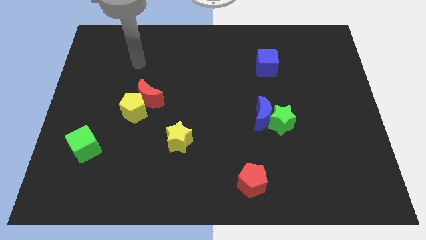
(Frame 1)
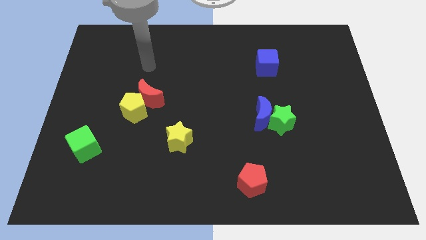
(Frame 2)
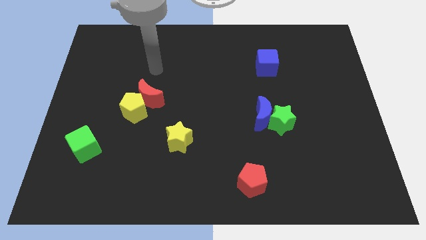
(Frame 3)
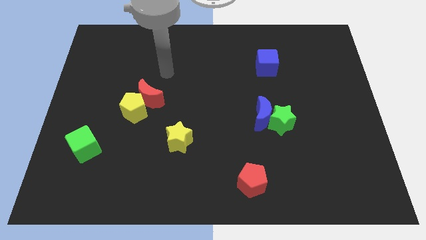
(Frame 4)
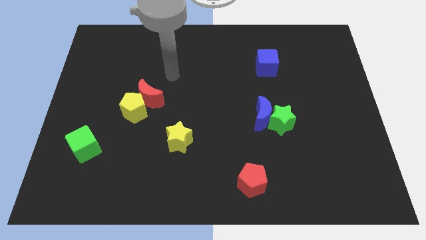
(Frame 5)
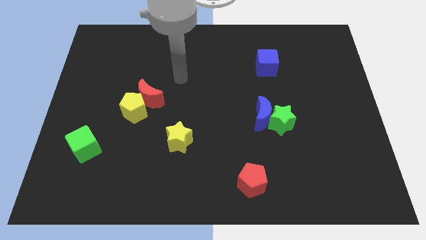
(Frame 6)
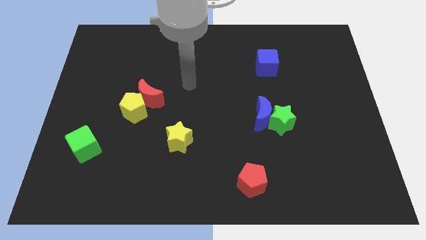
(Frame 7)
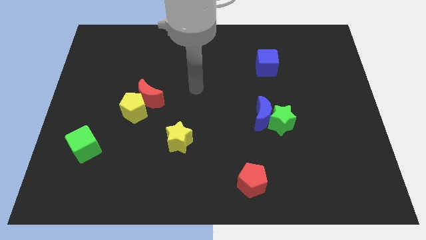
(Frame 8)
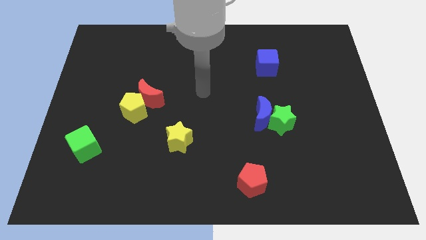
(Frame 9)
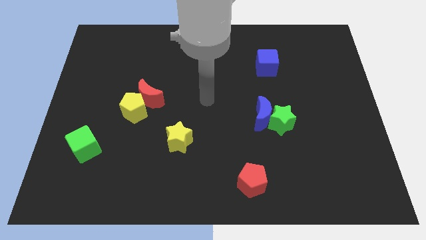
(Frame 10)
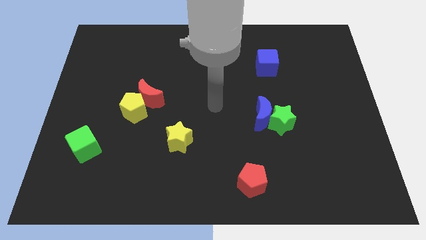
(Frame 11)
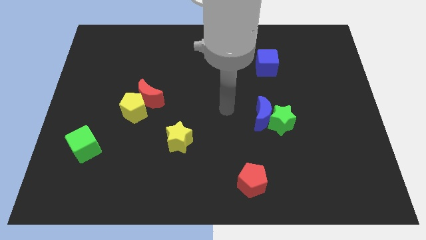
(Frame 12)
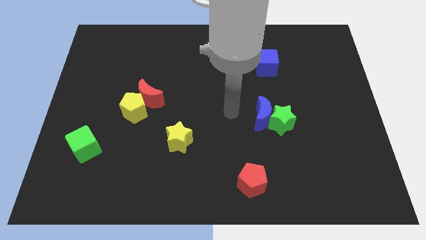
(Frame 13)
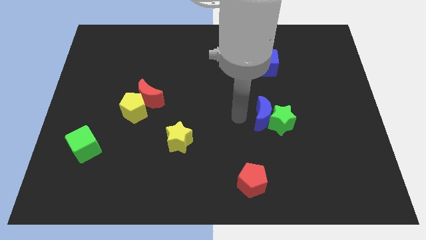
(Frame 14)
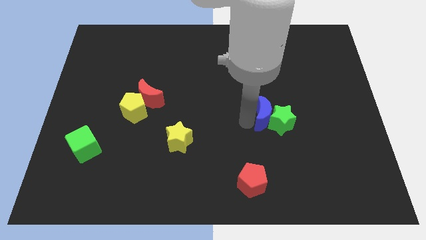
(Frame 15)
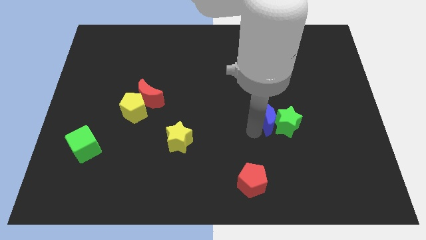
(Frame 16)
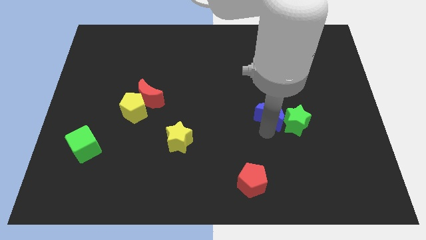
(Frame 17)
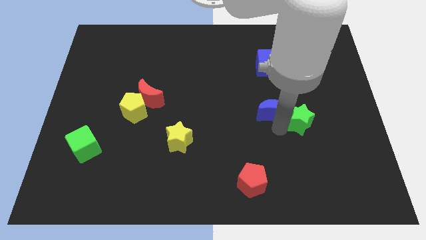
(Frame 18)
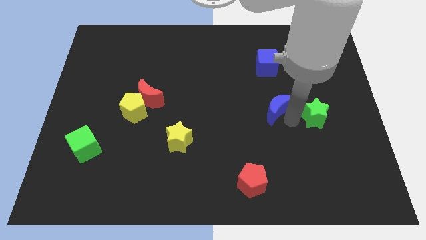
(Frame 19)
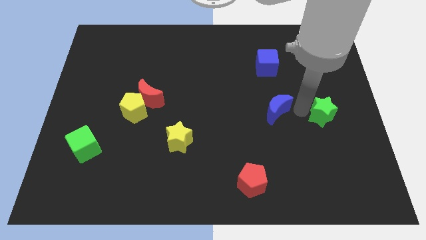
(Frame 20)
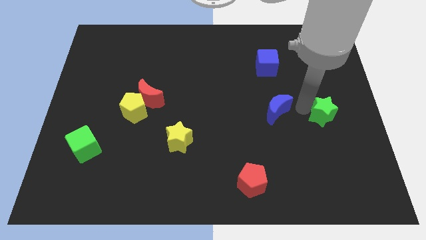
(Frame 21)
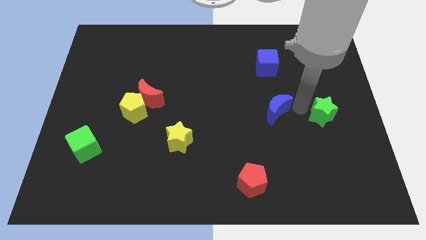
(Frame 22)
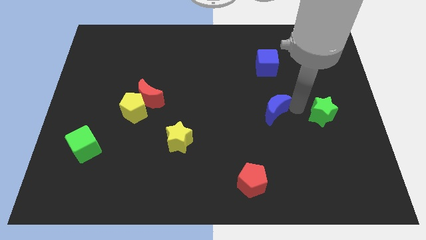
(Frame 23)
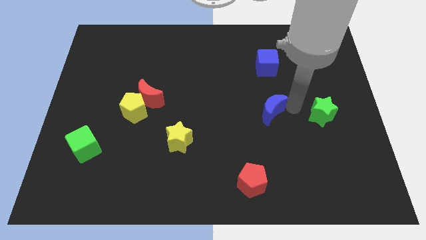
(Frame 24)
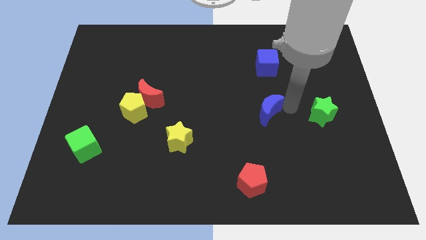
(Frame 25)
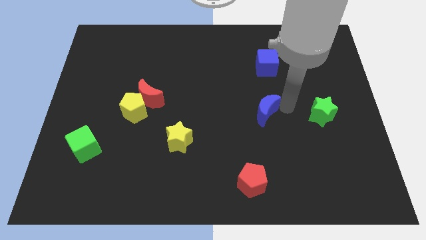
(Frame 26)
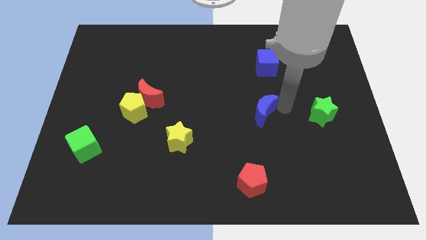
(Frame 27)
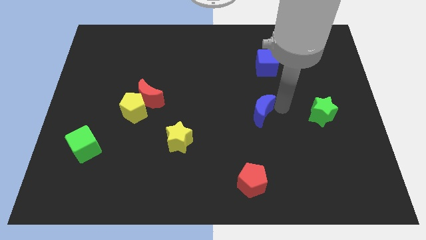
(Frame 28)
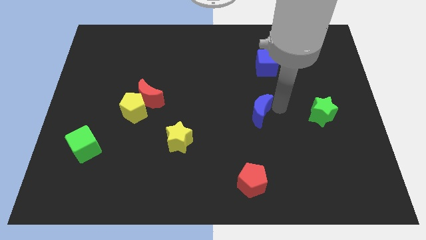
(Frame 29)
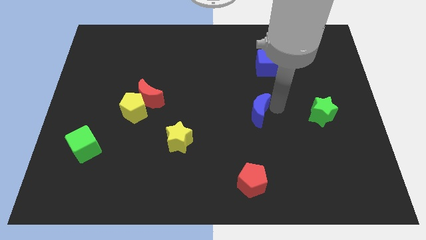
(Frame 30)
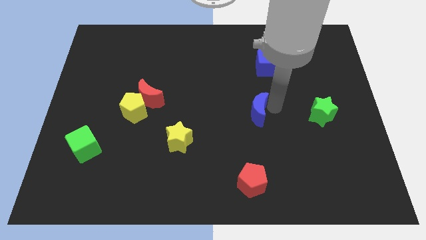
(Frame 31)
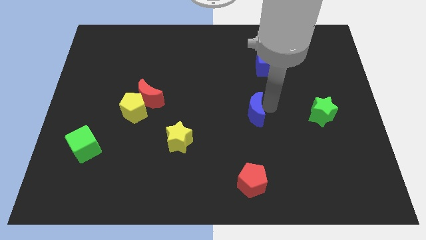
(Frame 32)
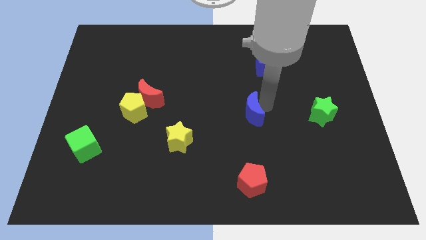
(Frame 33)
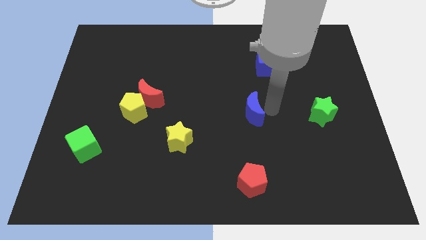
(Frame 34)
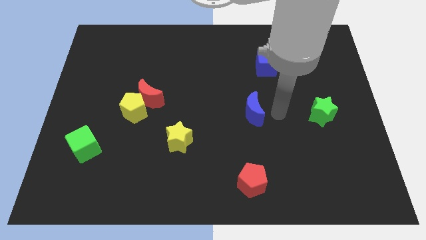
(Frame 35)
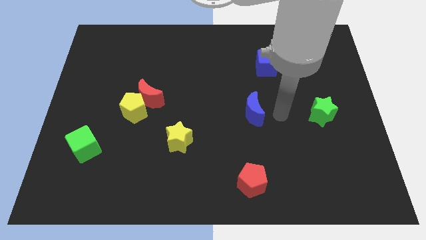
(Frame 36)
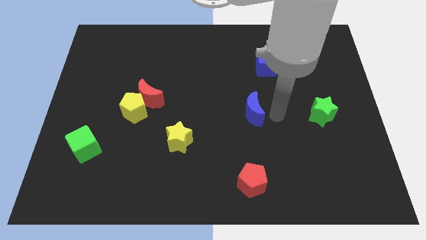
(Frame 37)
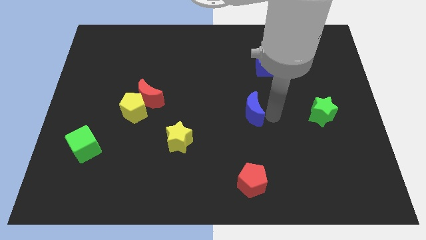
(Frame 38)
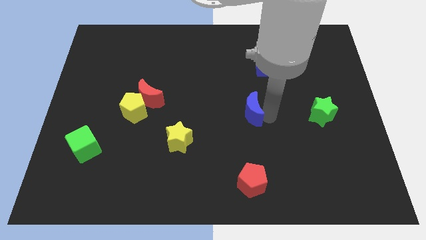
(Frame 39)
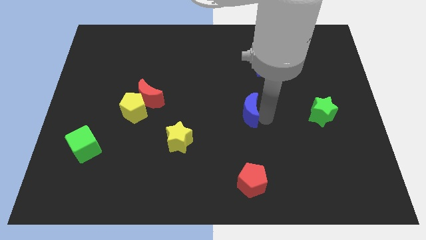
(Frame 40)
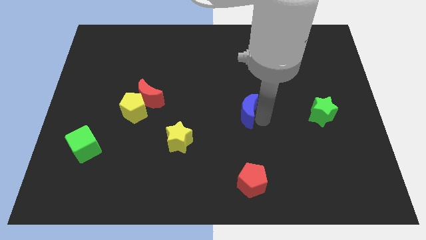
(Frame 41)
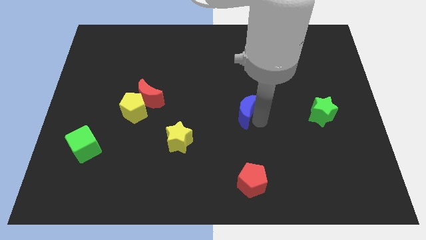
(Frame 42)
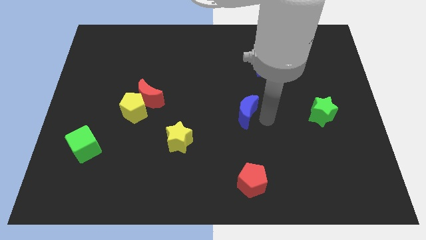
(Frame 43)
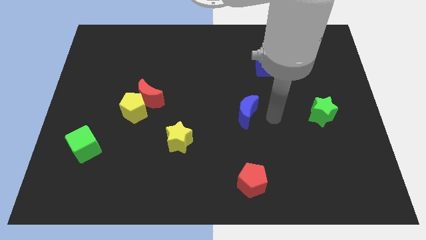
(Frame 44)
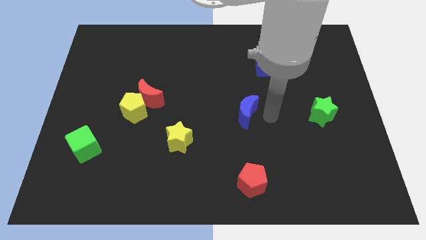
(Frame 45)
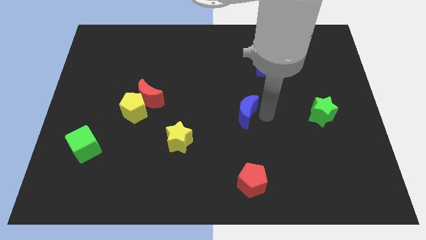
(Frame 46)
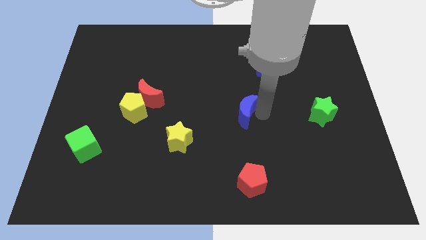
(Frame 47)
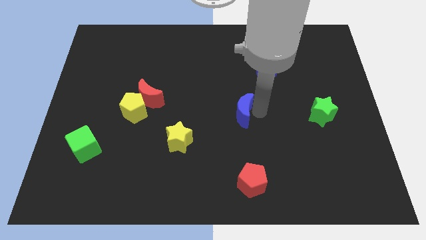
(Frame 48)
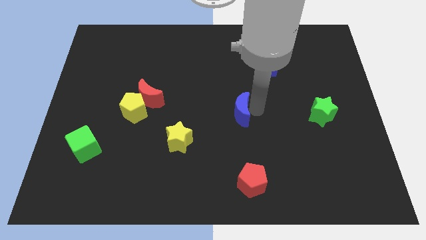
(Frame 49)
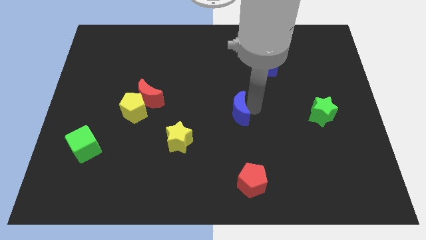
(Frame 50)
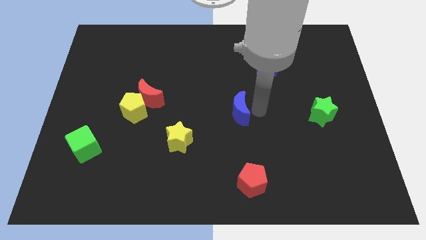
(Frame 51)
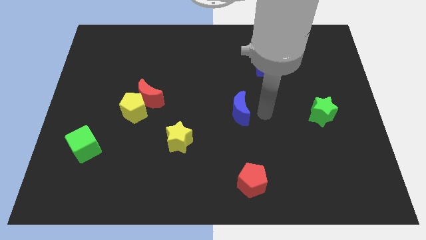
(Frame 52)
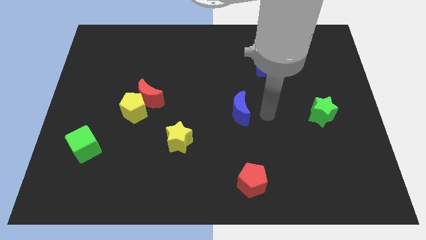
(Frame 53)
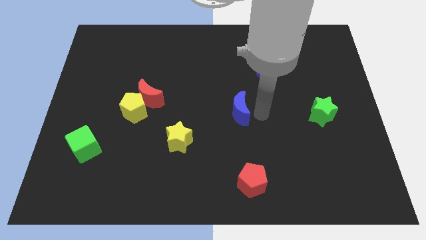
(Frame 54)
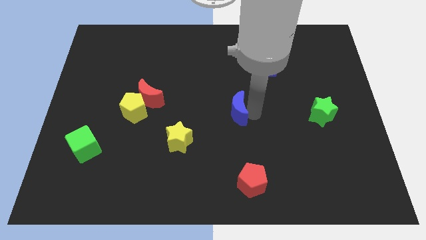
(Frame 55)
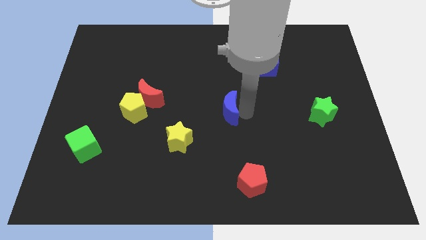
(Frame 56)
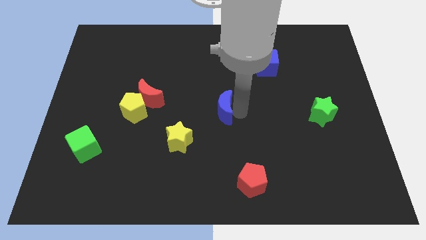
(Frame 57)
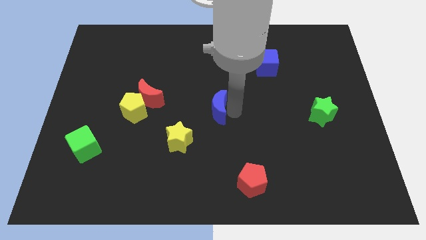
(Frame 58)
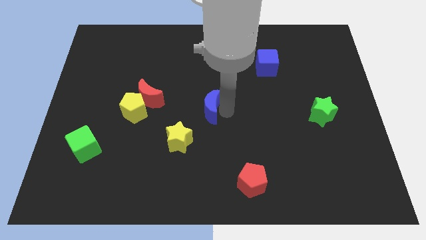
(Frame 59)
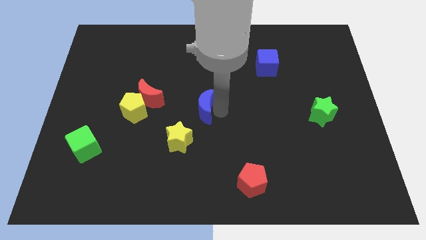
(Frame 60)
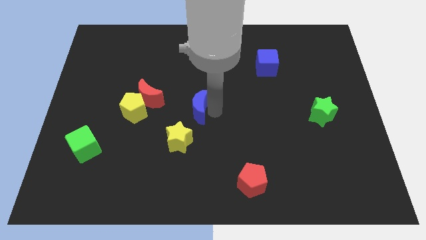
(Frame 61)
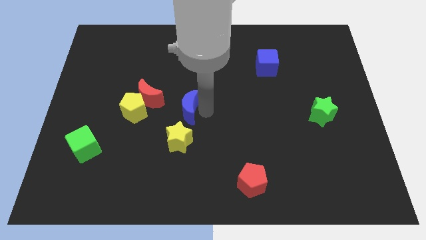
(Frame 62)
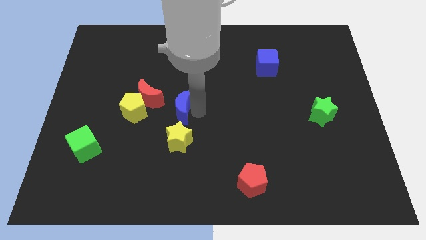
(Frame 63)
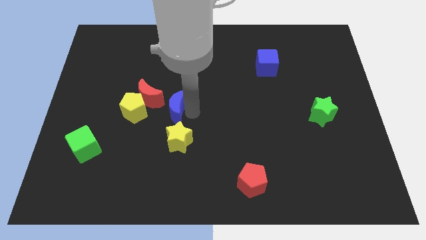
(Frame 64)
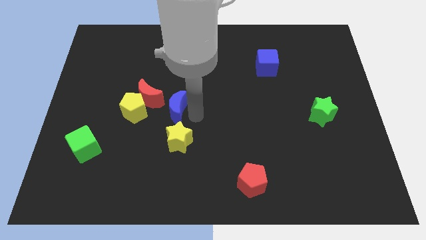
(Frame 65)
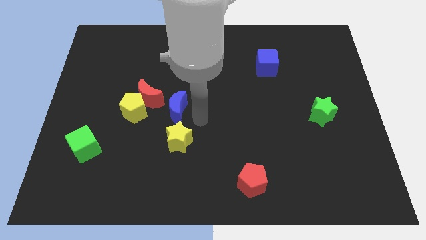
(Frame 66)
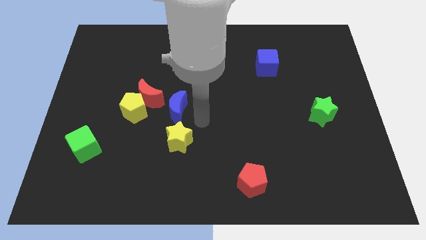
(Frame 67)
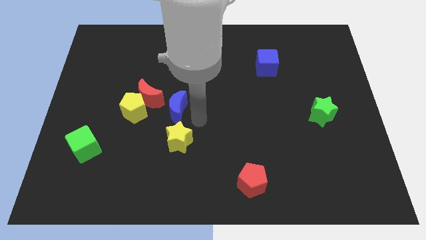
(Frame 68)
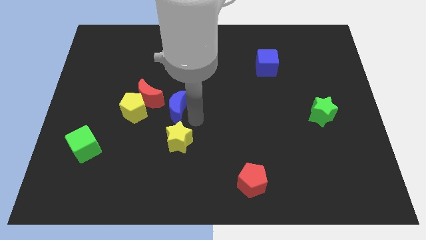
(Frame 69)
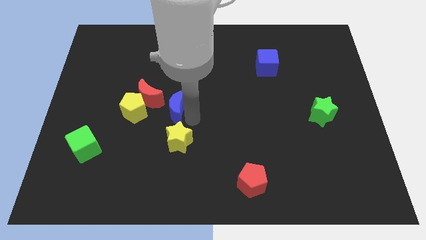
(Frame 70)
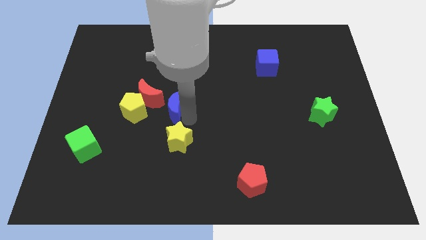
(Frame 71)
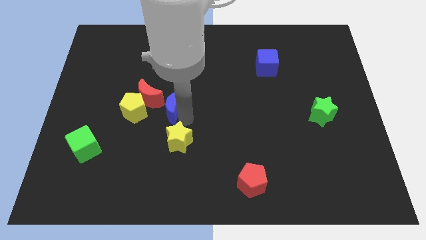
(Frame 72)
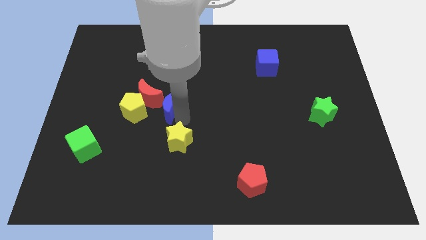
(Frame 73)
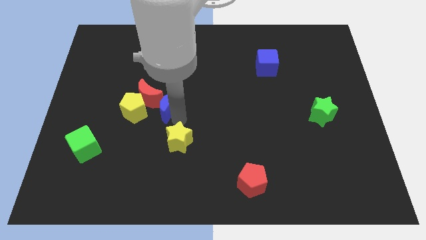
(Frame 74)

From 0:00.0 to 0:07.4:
slide the blue moon next to the red moon

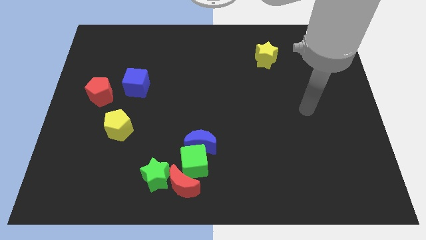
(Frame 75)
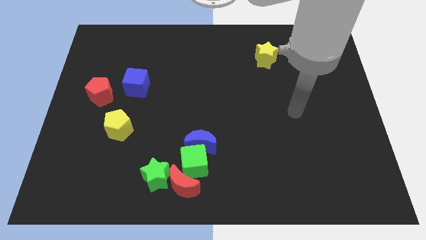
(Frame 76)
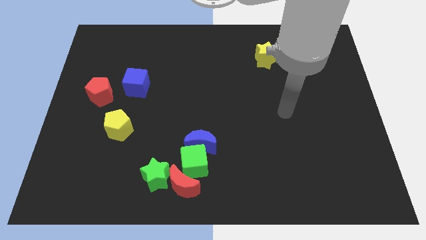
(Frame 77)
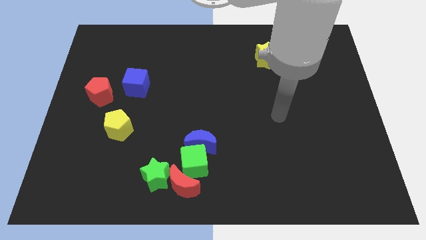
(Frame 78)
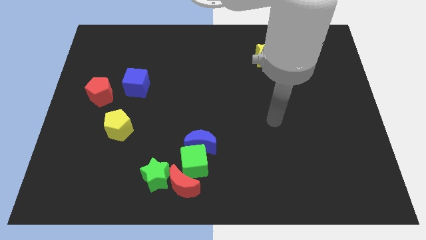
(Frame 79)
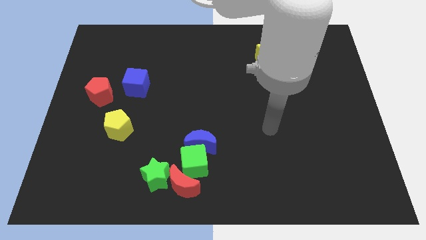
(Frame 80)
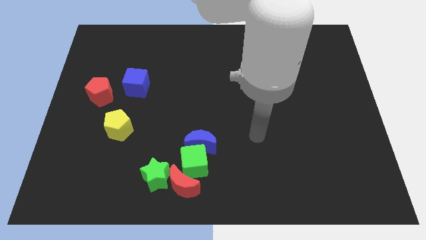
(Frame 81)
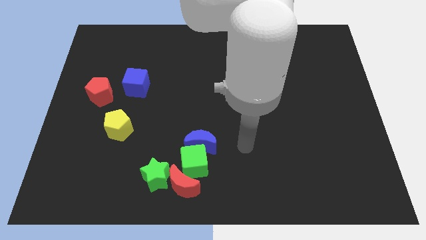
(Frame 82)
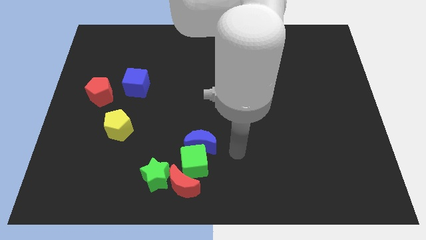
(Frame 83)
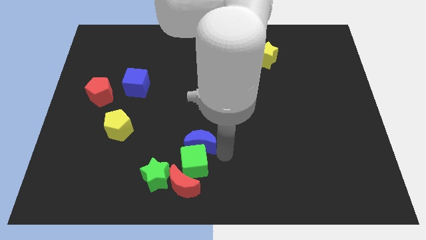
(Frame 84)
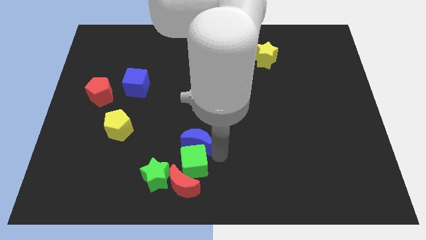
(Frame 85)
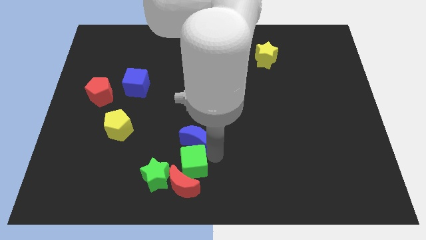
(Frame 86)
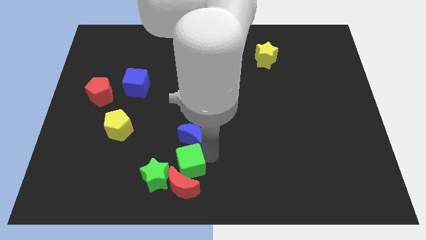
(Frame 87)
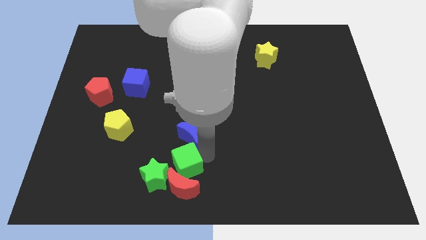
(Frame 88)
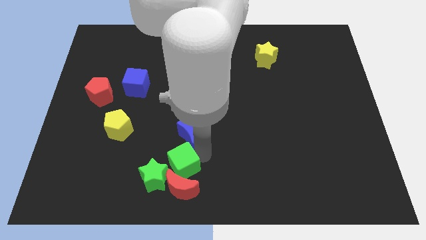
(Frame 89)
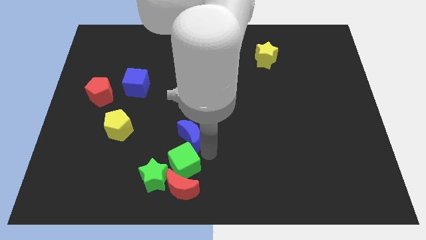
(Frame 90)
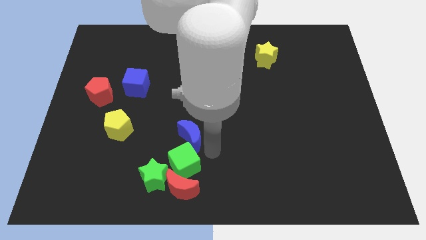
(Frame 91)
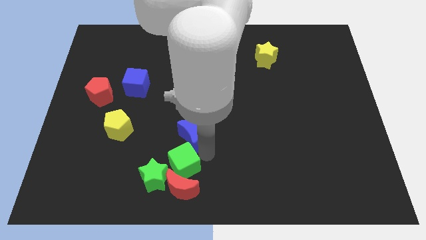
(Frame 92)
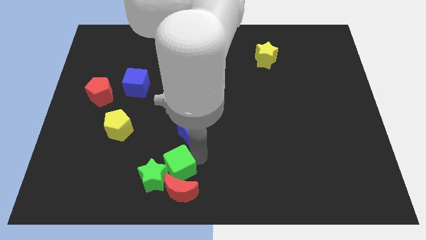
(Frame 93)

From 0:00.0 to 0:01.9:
put the green cube close to the green star
